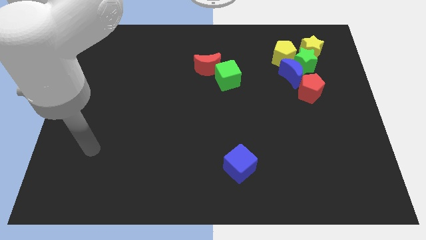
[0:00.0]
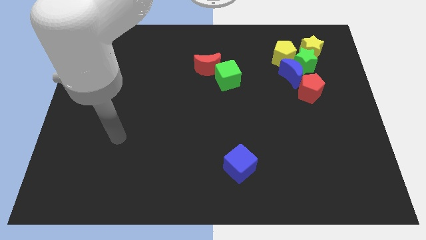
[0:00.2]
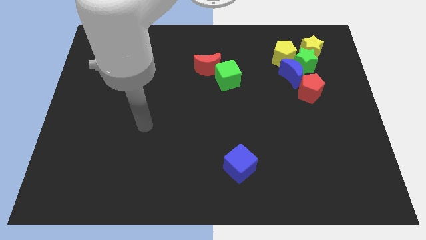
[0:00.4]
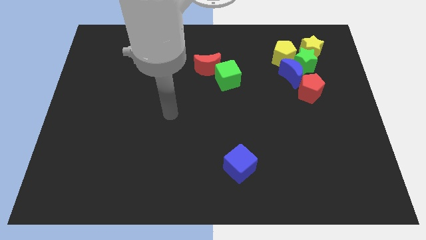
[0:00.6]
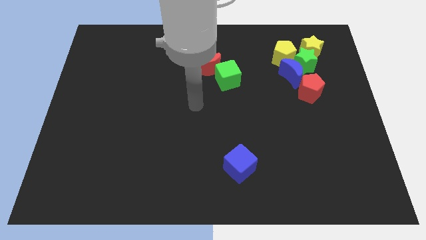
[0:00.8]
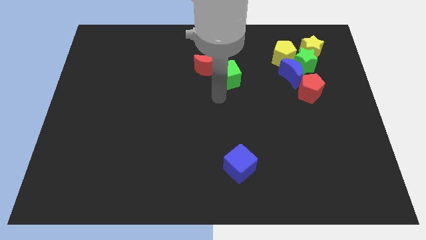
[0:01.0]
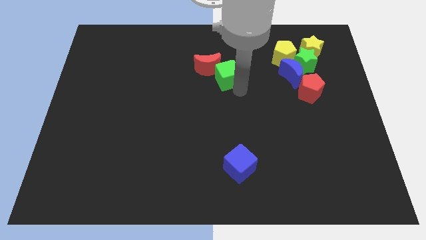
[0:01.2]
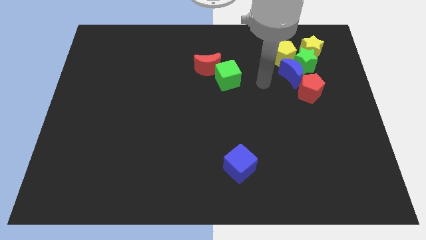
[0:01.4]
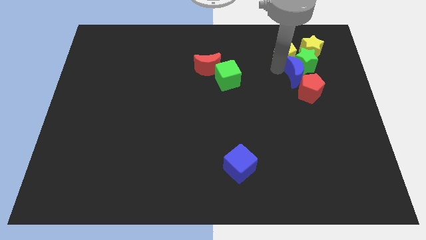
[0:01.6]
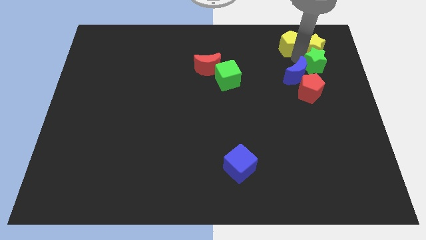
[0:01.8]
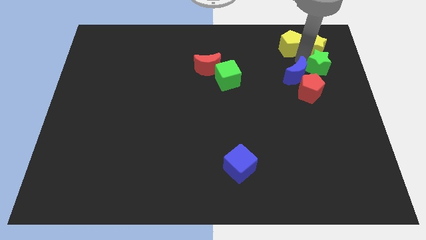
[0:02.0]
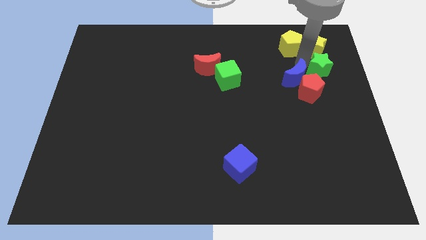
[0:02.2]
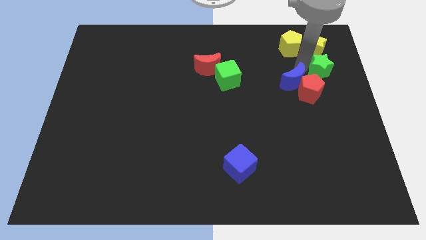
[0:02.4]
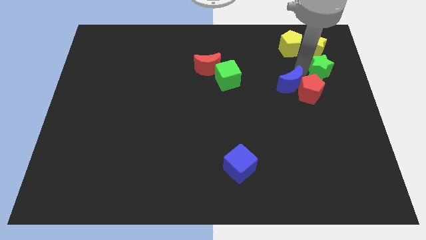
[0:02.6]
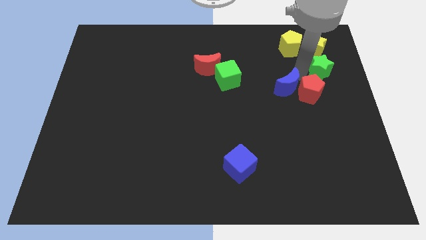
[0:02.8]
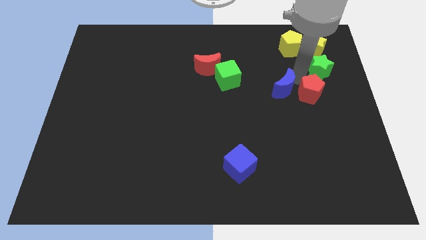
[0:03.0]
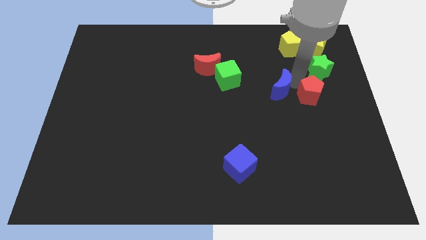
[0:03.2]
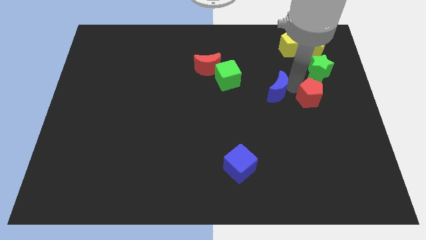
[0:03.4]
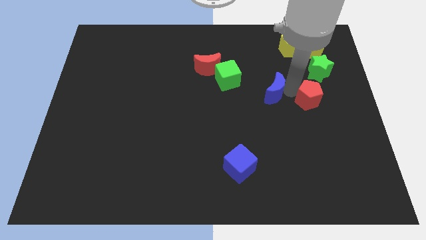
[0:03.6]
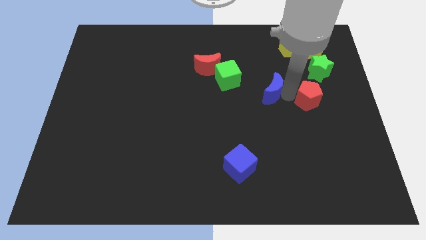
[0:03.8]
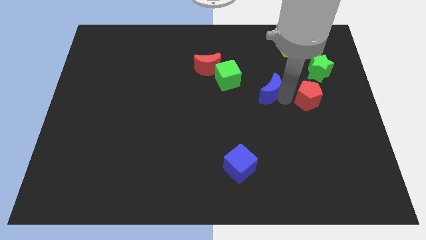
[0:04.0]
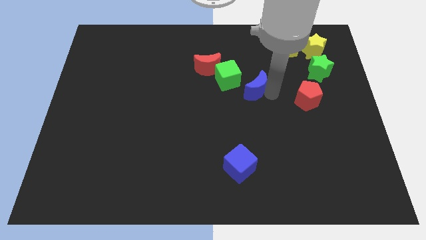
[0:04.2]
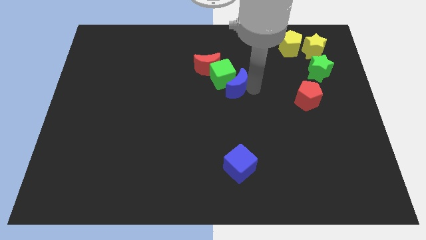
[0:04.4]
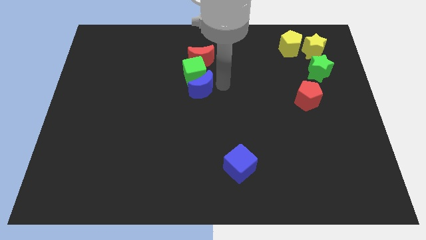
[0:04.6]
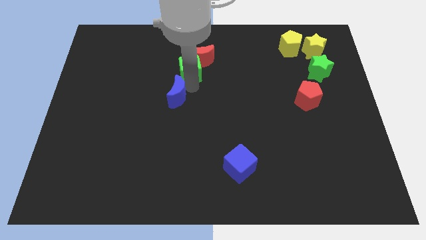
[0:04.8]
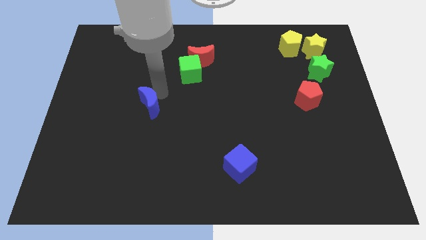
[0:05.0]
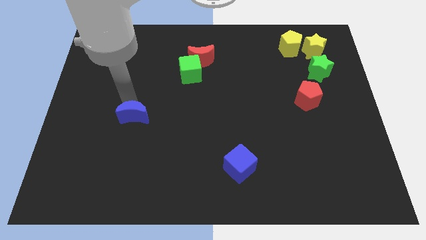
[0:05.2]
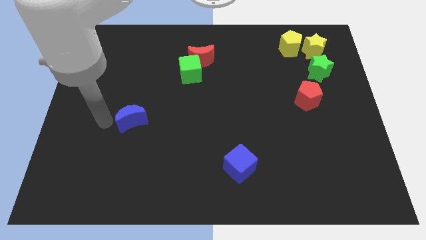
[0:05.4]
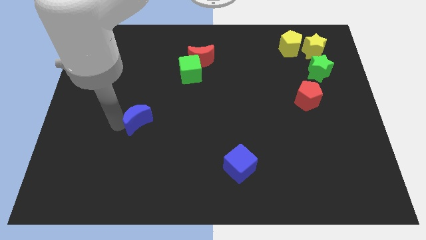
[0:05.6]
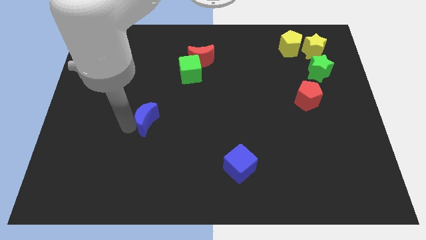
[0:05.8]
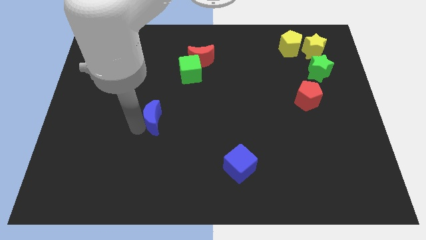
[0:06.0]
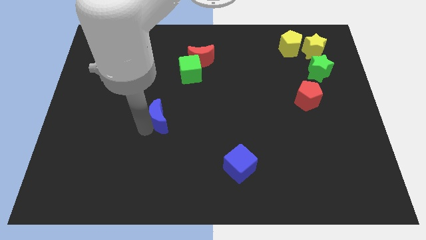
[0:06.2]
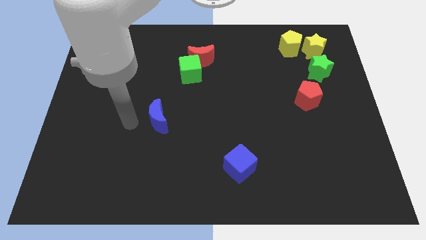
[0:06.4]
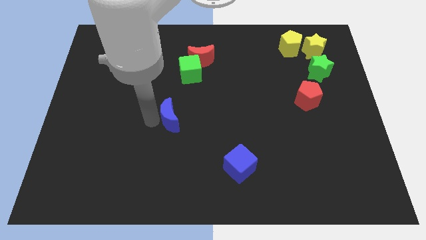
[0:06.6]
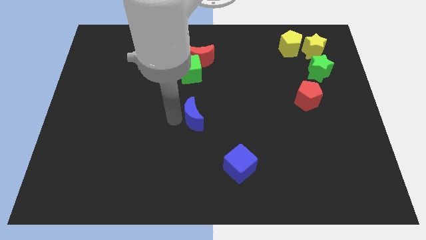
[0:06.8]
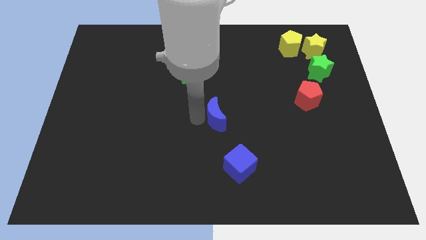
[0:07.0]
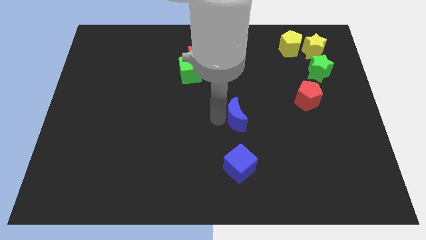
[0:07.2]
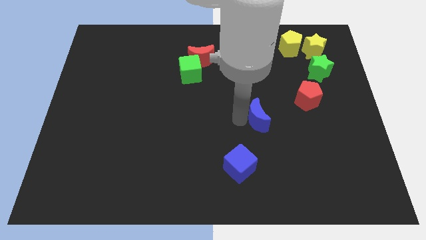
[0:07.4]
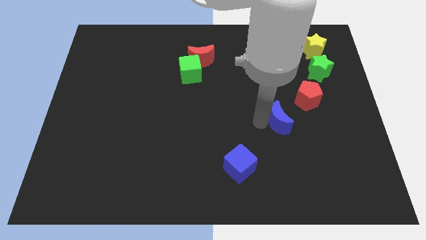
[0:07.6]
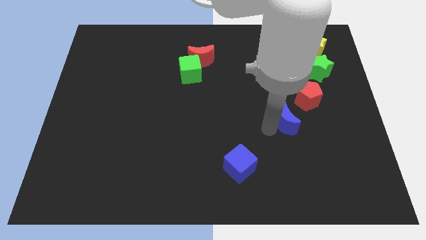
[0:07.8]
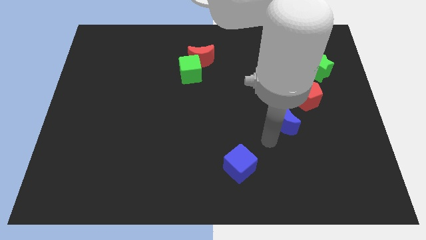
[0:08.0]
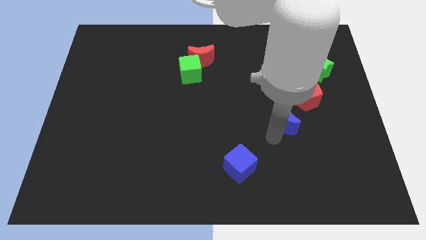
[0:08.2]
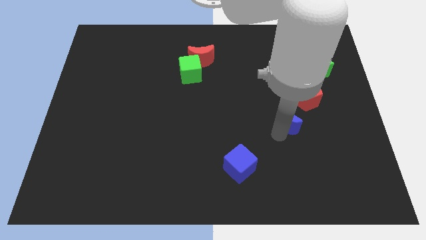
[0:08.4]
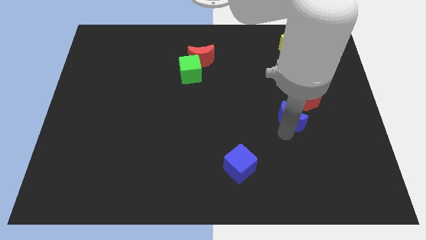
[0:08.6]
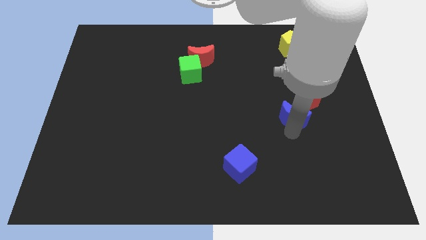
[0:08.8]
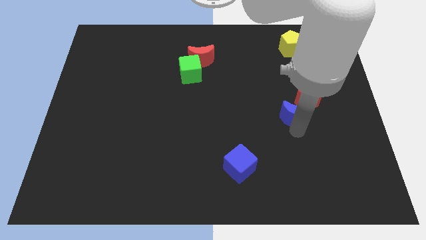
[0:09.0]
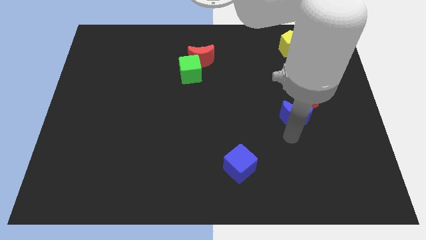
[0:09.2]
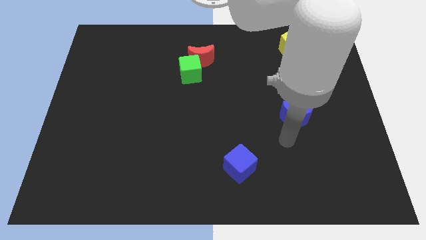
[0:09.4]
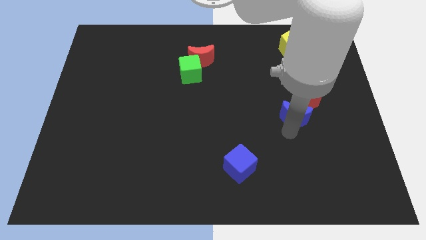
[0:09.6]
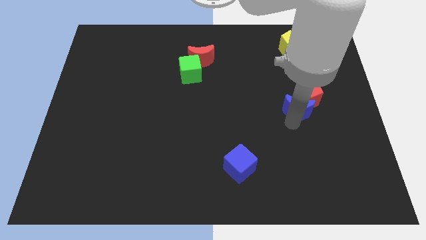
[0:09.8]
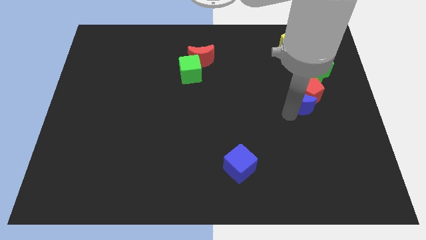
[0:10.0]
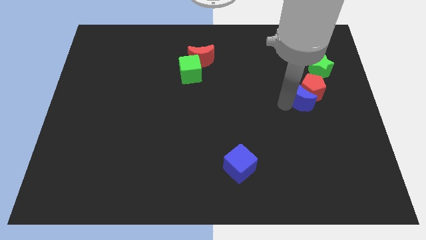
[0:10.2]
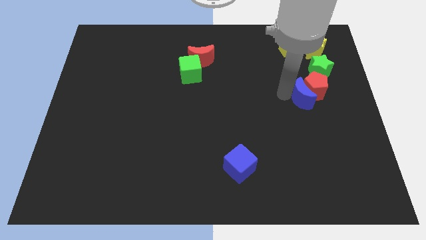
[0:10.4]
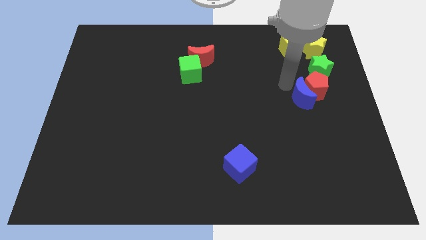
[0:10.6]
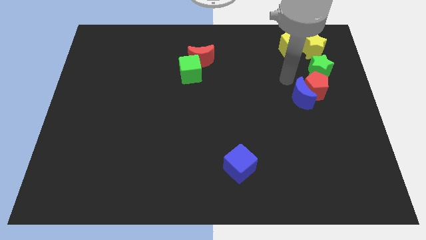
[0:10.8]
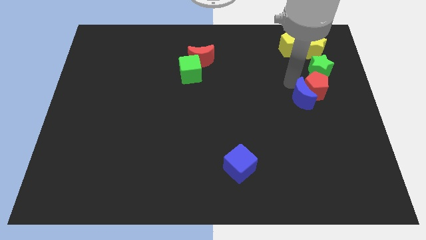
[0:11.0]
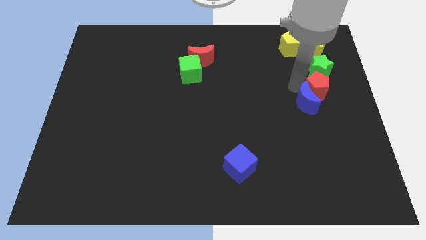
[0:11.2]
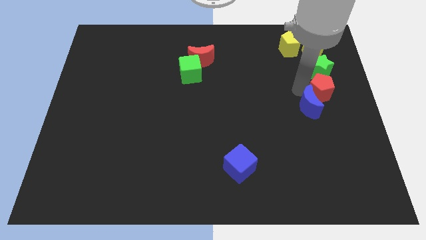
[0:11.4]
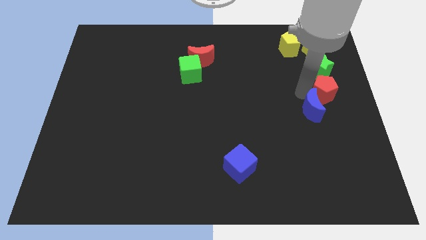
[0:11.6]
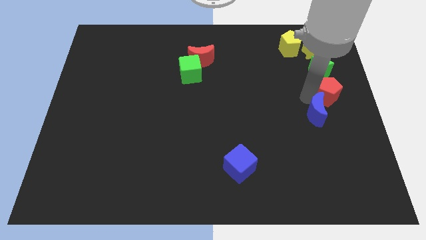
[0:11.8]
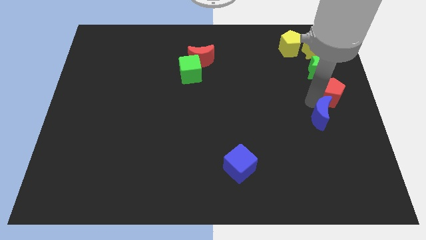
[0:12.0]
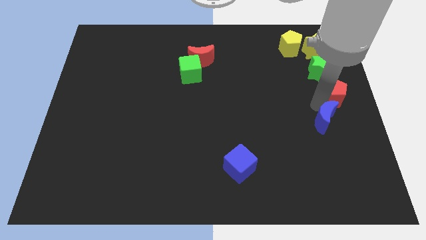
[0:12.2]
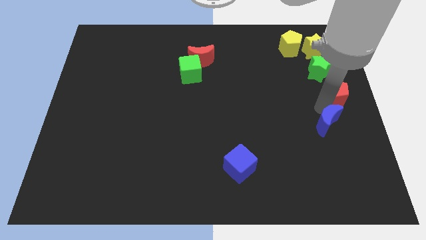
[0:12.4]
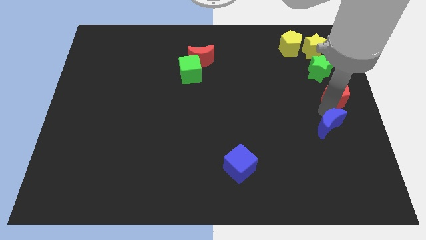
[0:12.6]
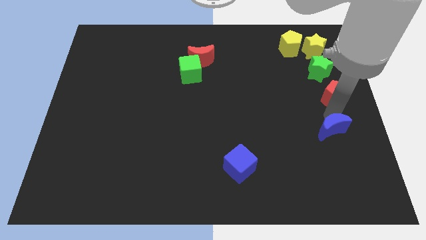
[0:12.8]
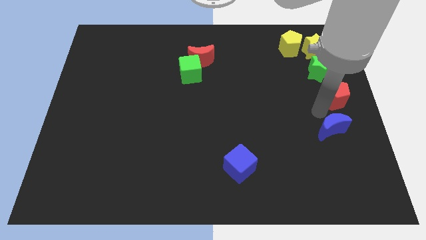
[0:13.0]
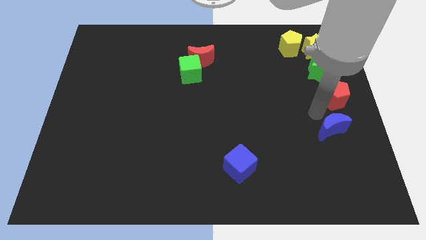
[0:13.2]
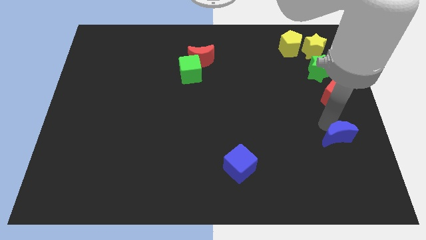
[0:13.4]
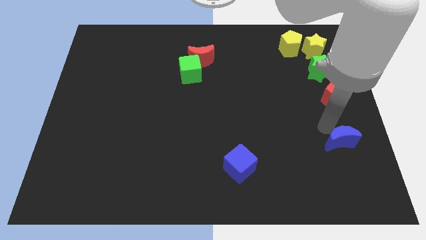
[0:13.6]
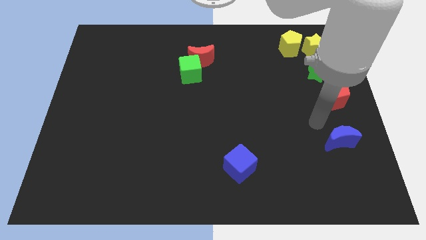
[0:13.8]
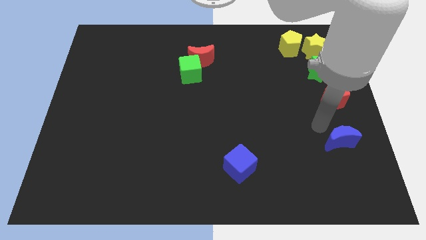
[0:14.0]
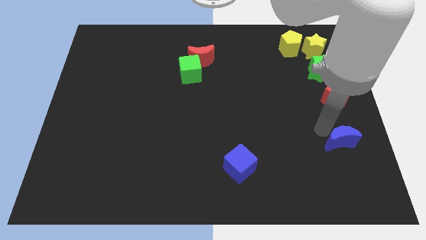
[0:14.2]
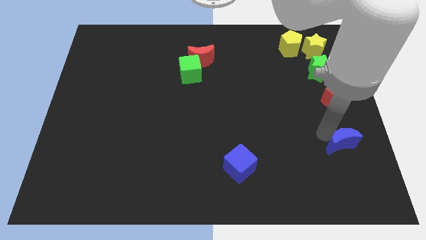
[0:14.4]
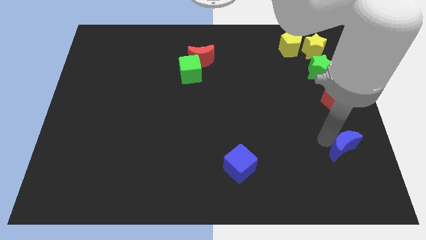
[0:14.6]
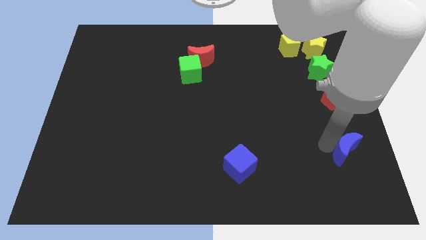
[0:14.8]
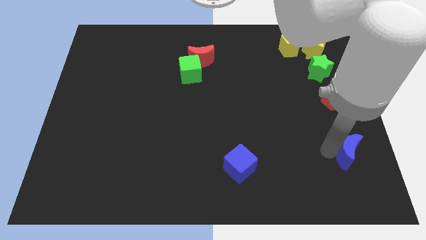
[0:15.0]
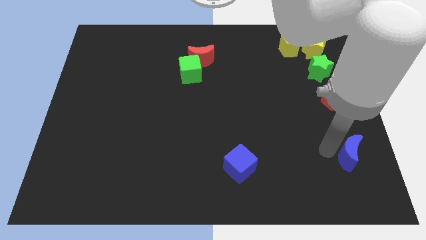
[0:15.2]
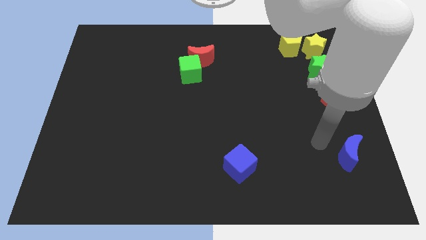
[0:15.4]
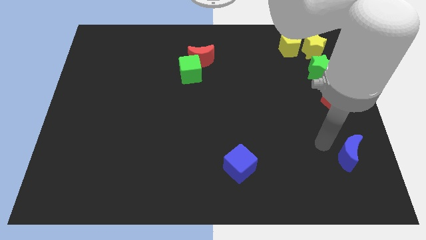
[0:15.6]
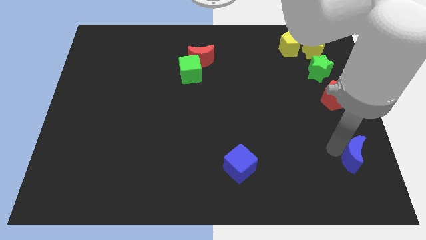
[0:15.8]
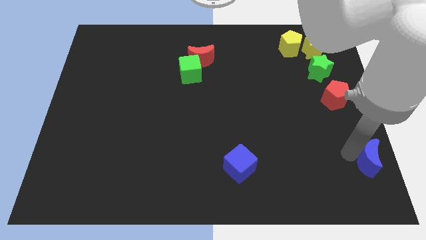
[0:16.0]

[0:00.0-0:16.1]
put the blue moon to the bottom right of the board
